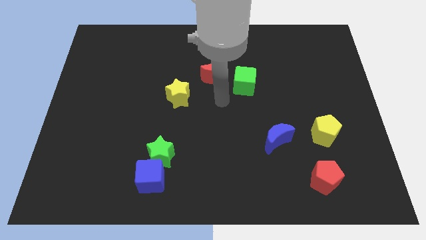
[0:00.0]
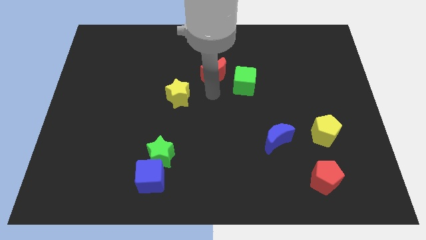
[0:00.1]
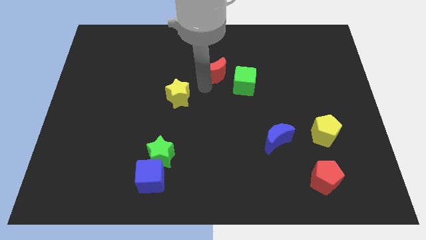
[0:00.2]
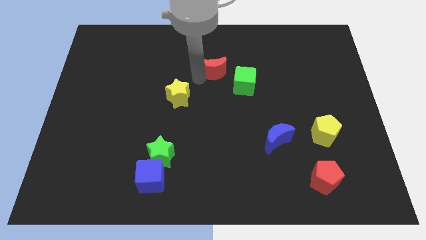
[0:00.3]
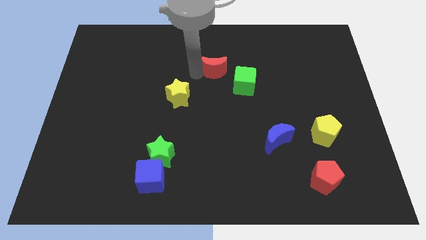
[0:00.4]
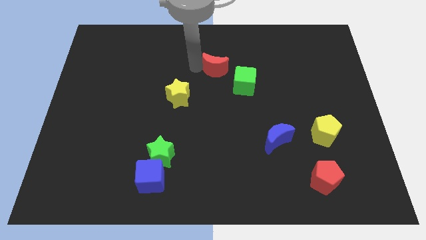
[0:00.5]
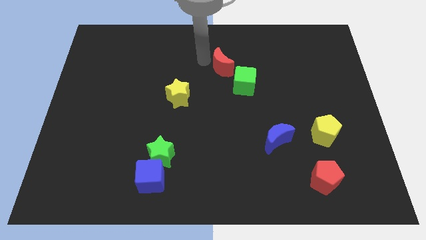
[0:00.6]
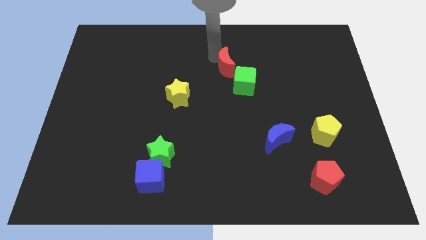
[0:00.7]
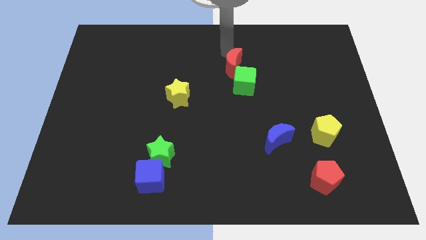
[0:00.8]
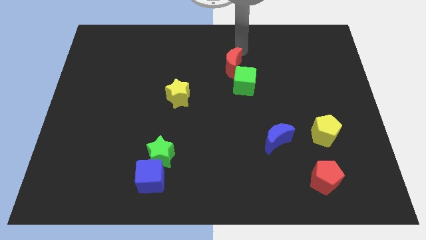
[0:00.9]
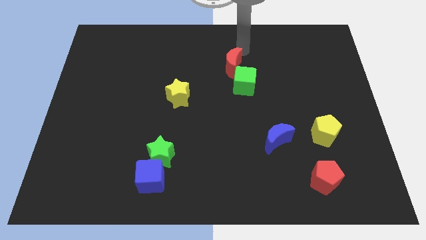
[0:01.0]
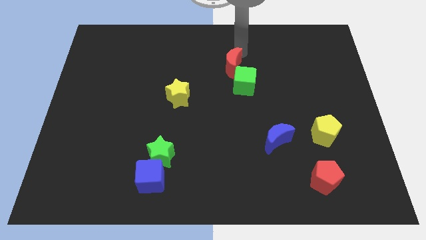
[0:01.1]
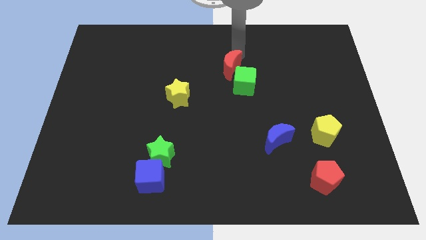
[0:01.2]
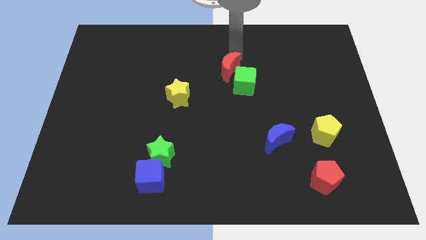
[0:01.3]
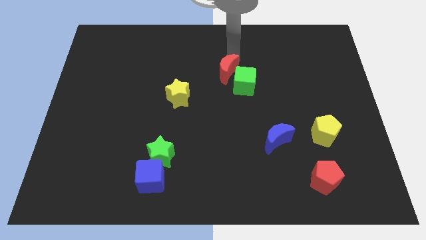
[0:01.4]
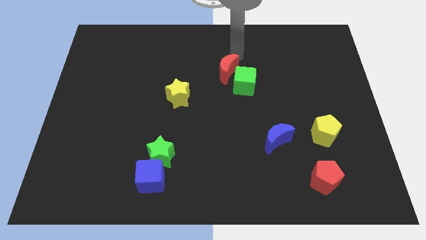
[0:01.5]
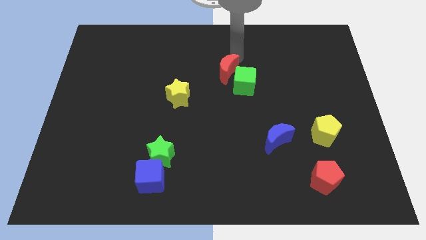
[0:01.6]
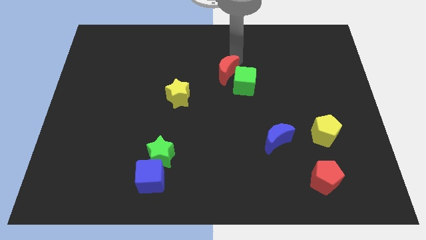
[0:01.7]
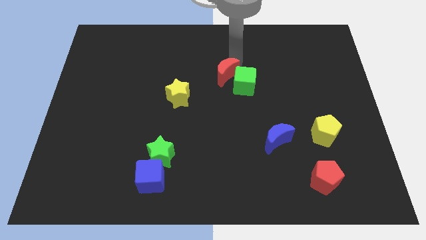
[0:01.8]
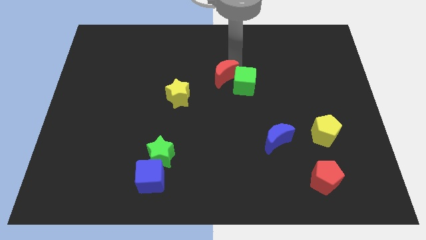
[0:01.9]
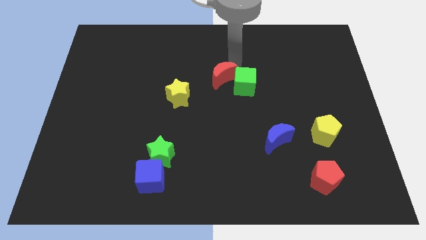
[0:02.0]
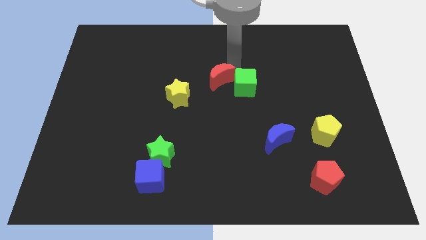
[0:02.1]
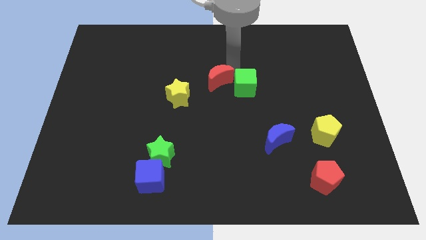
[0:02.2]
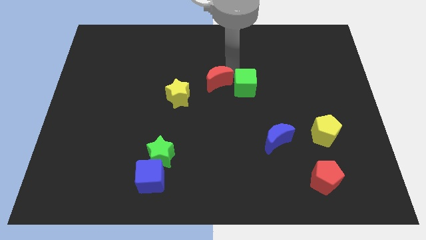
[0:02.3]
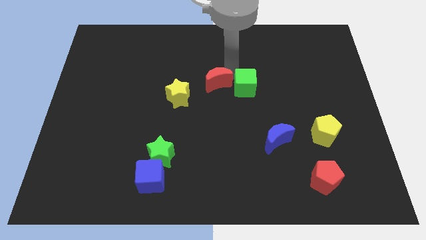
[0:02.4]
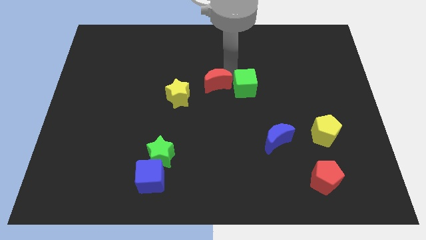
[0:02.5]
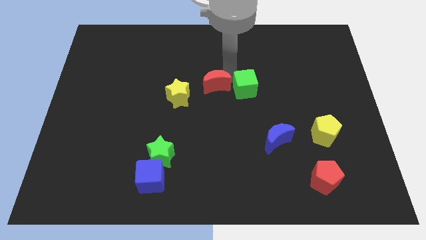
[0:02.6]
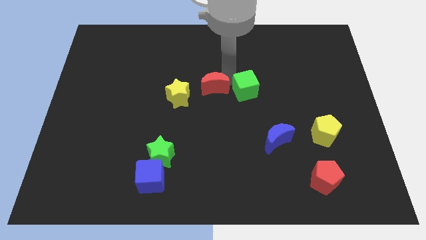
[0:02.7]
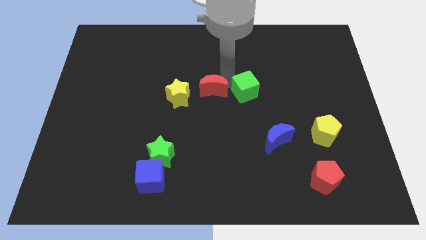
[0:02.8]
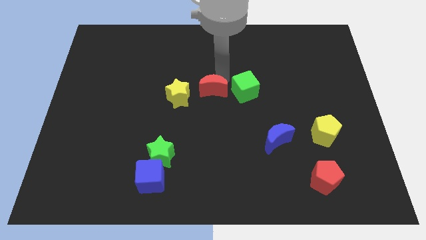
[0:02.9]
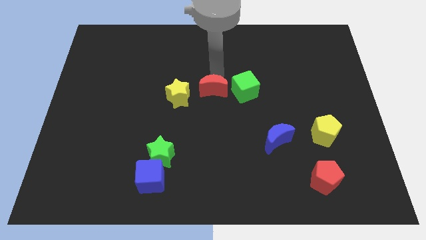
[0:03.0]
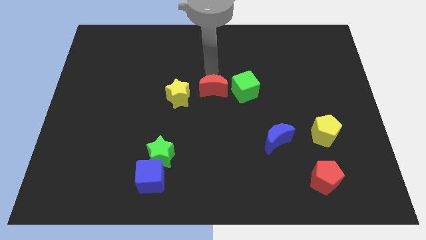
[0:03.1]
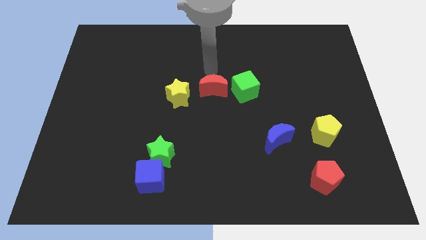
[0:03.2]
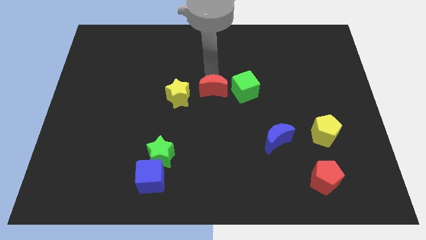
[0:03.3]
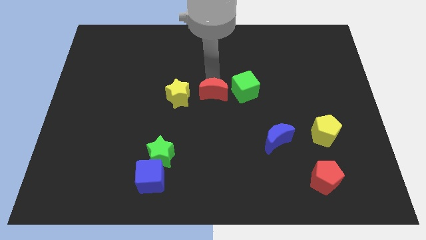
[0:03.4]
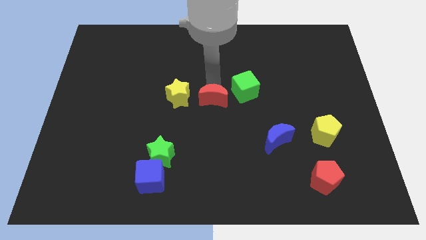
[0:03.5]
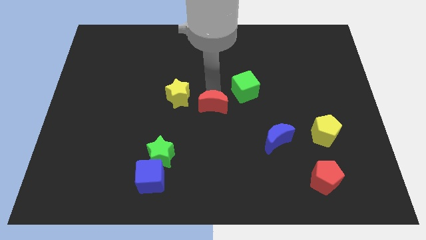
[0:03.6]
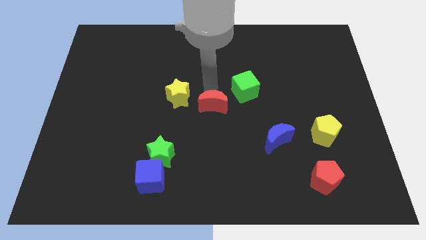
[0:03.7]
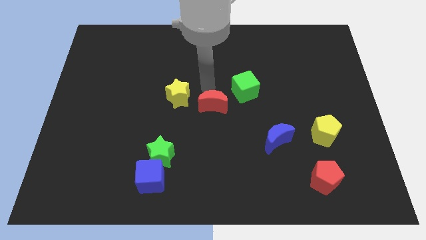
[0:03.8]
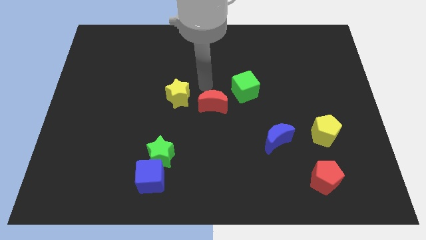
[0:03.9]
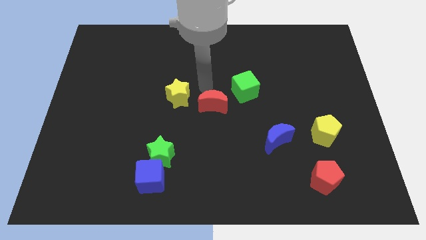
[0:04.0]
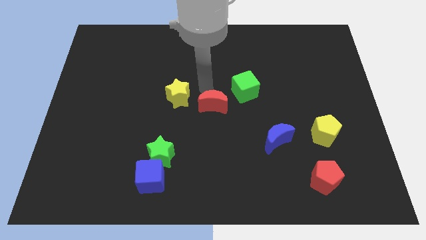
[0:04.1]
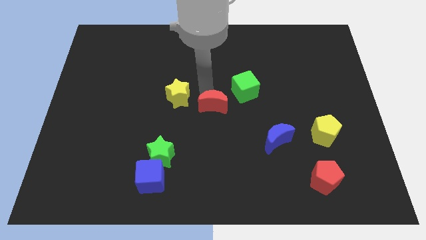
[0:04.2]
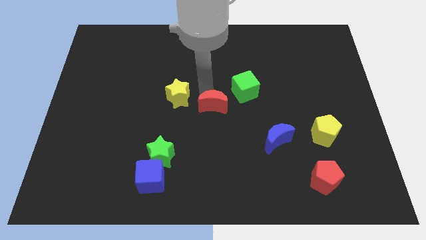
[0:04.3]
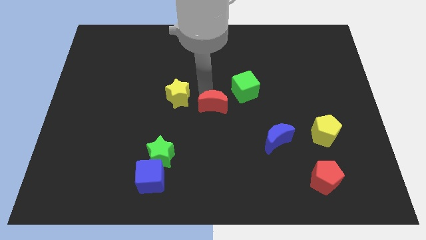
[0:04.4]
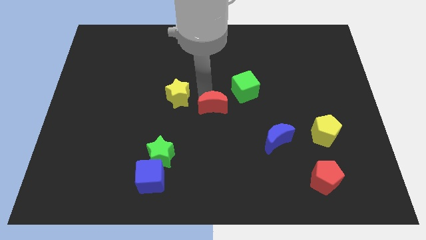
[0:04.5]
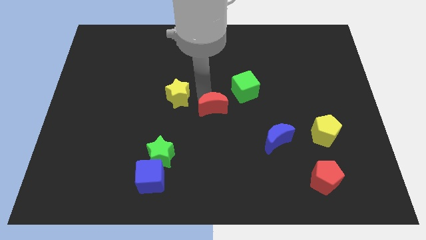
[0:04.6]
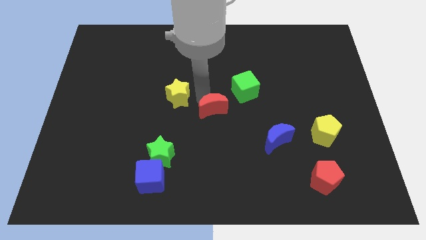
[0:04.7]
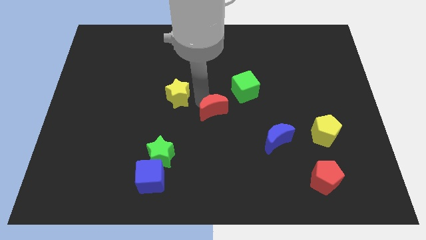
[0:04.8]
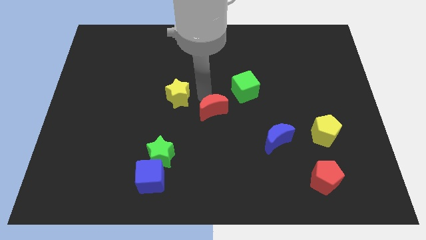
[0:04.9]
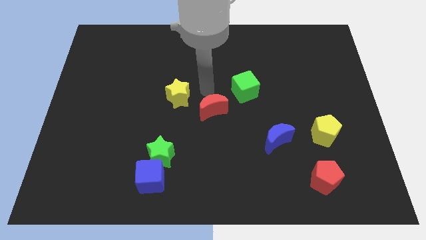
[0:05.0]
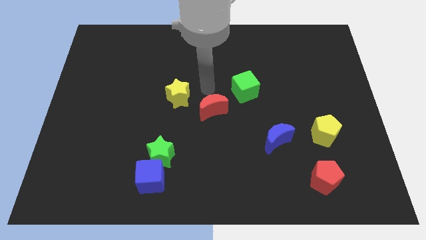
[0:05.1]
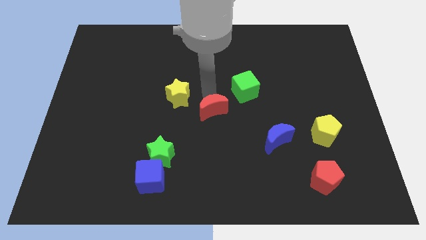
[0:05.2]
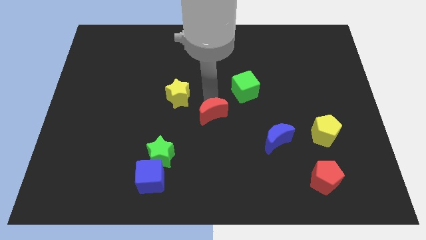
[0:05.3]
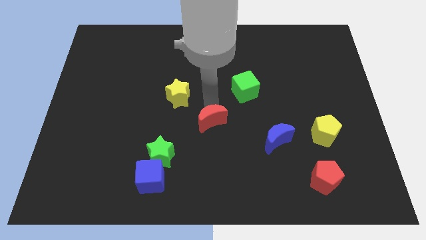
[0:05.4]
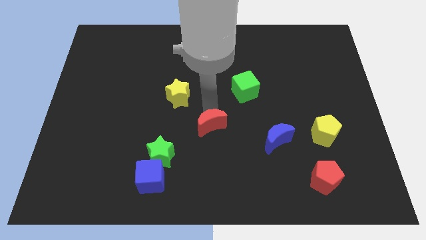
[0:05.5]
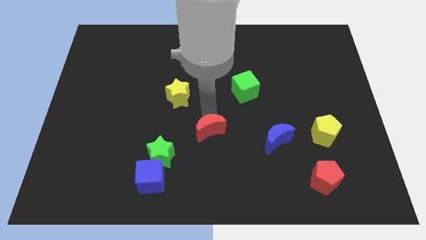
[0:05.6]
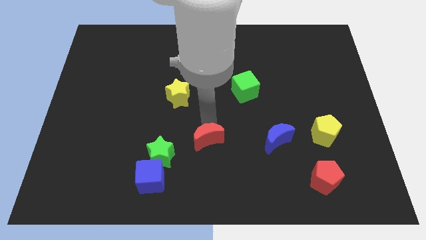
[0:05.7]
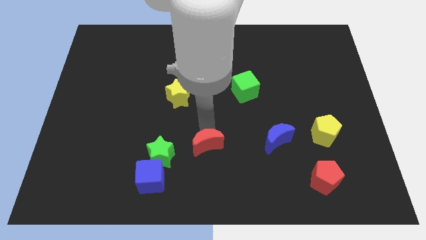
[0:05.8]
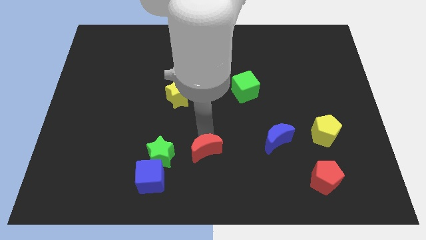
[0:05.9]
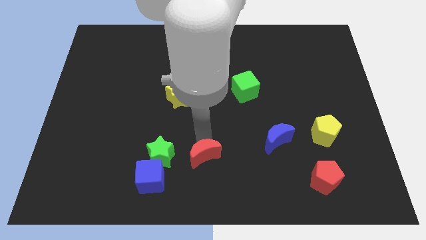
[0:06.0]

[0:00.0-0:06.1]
put the red moon to the bottom side

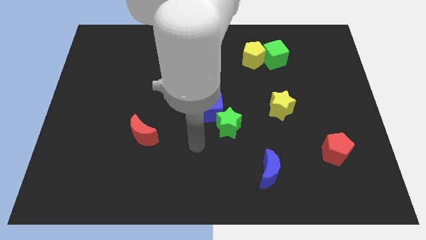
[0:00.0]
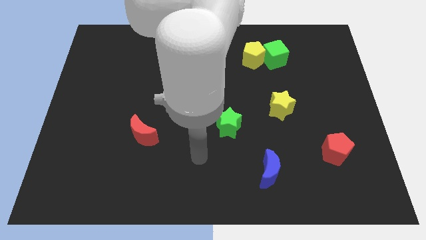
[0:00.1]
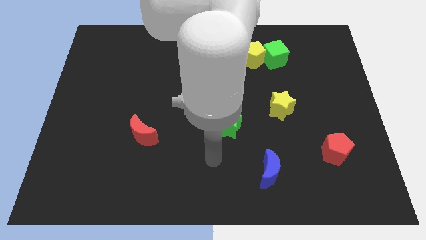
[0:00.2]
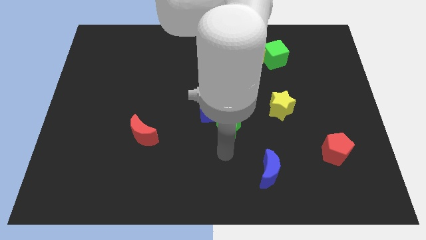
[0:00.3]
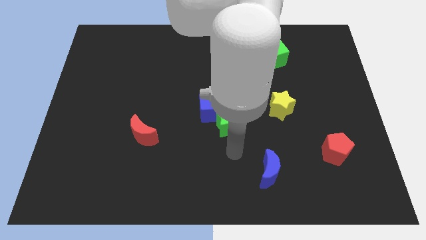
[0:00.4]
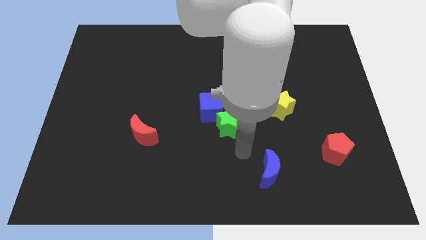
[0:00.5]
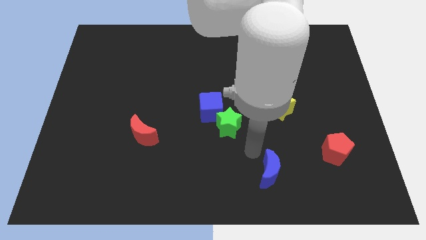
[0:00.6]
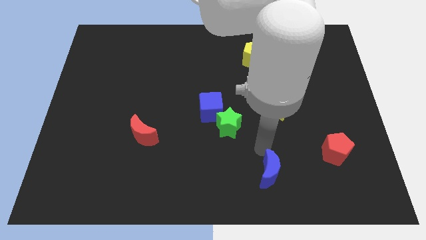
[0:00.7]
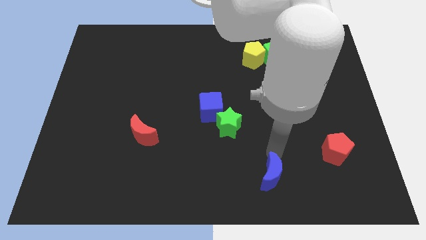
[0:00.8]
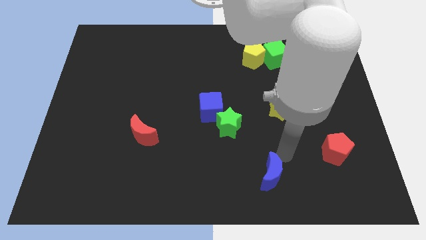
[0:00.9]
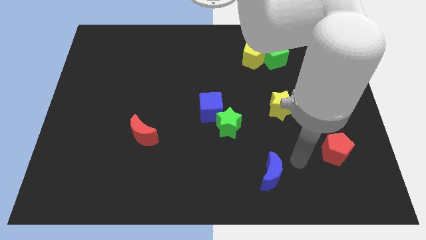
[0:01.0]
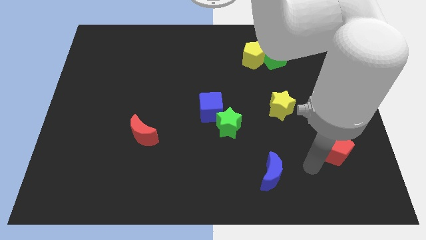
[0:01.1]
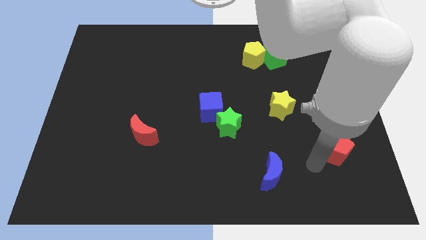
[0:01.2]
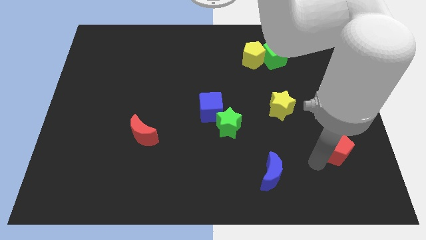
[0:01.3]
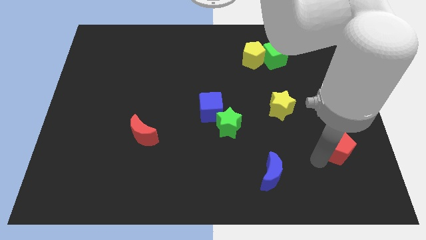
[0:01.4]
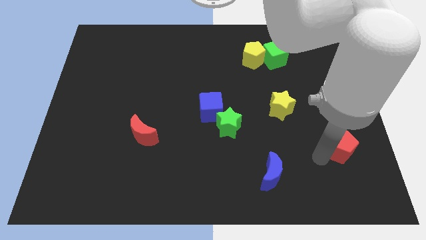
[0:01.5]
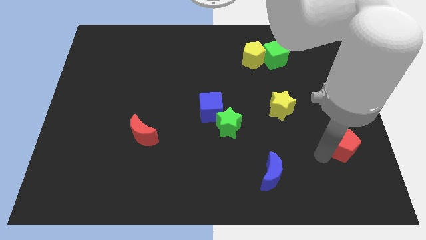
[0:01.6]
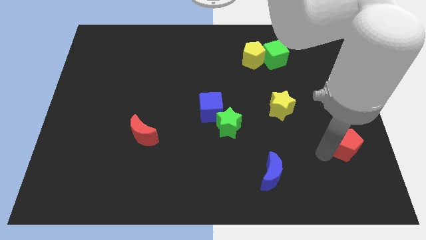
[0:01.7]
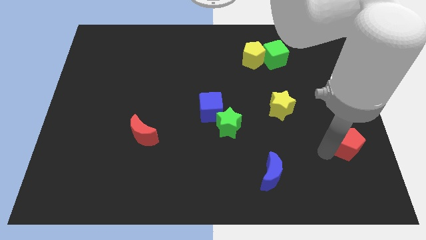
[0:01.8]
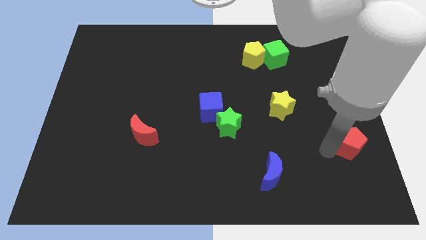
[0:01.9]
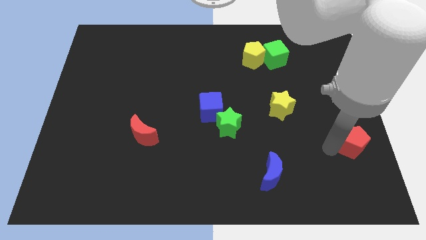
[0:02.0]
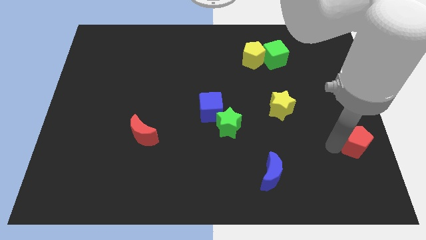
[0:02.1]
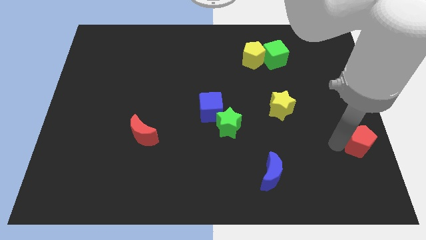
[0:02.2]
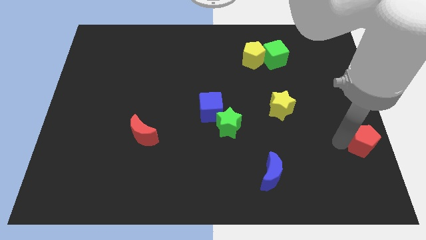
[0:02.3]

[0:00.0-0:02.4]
slide the red pentagon to the right side of the board
